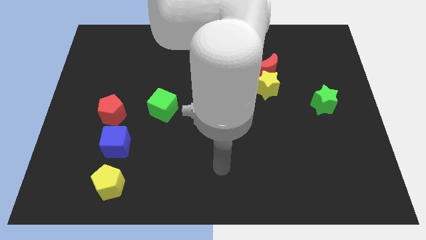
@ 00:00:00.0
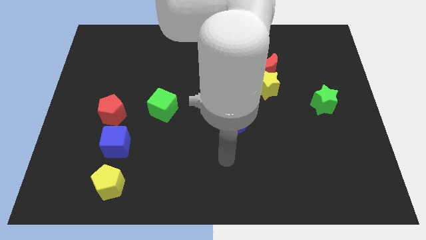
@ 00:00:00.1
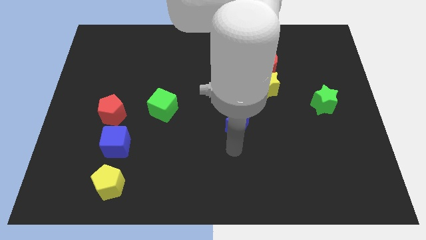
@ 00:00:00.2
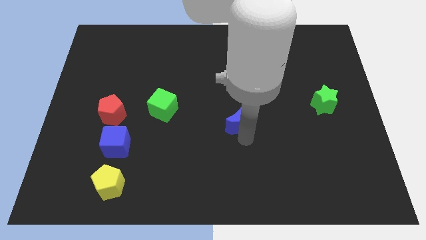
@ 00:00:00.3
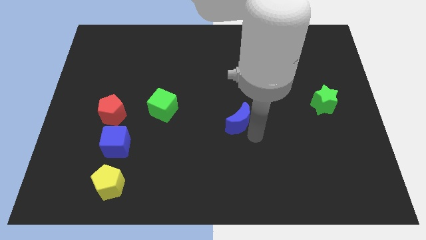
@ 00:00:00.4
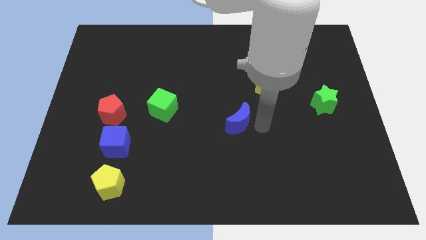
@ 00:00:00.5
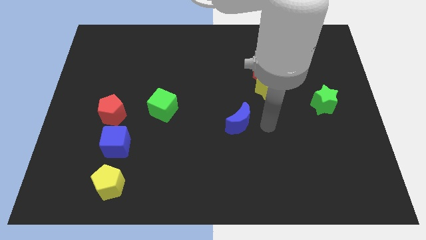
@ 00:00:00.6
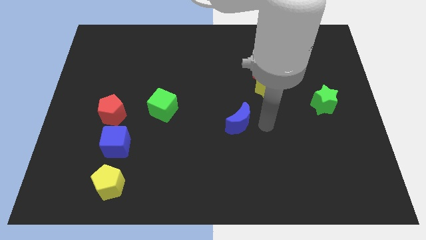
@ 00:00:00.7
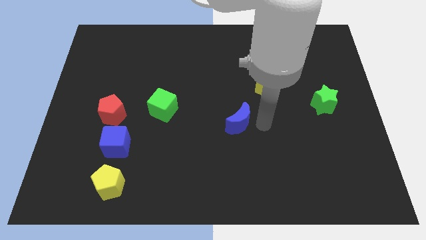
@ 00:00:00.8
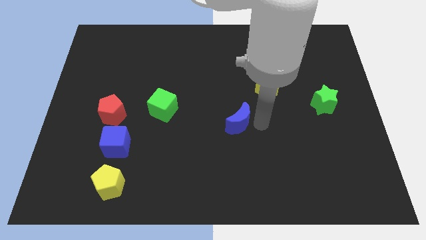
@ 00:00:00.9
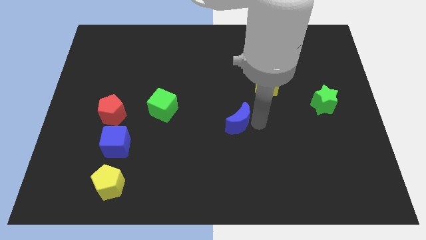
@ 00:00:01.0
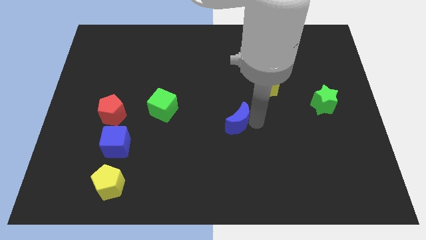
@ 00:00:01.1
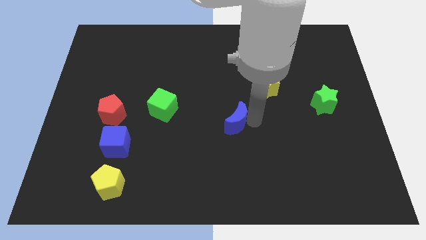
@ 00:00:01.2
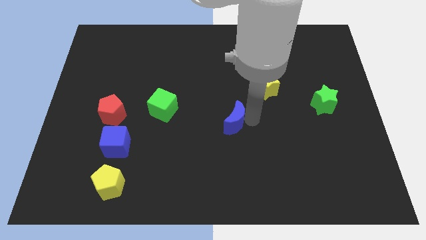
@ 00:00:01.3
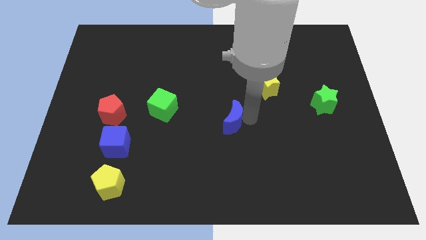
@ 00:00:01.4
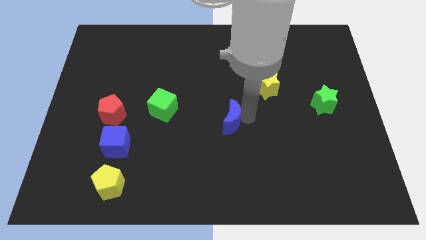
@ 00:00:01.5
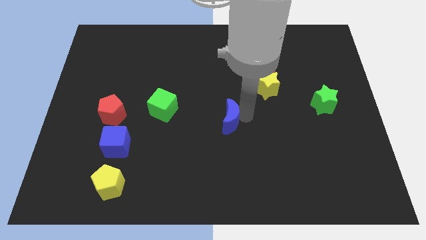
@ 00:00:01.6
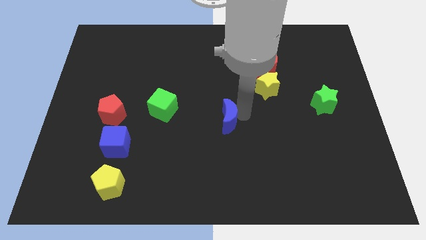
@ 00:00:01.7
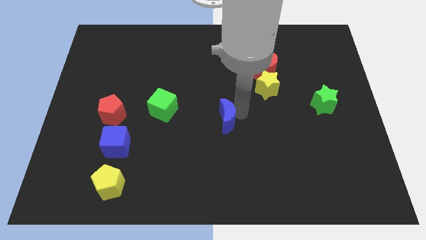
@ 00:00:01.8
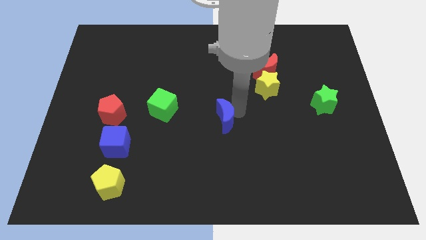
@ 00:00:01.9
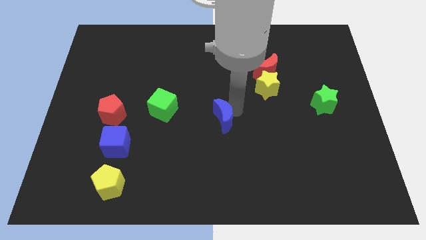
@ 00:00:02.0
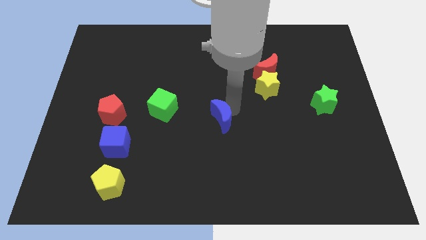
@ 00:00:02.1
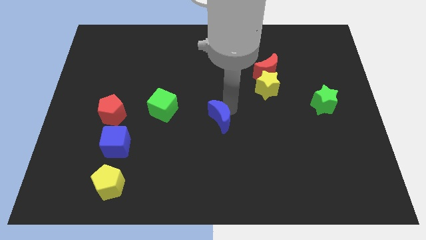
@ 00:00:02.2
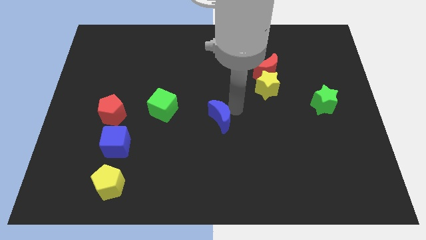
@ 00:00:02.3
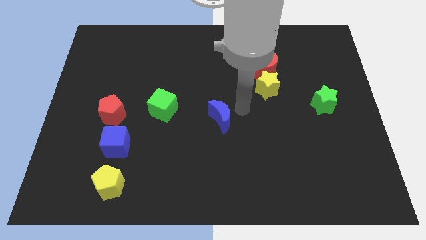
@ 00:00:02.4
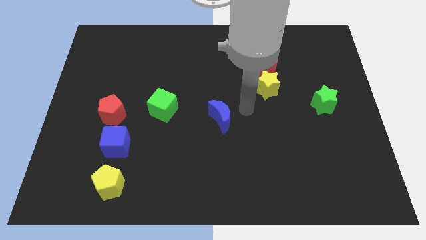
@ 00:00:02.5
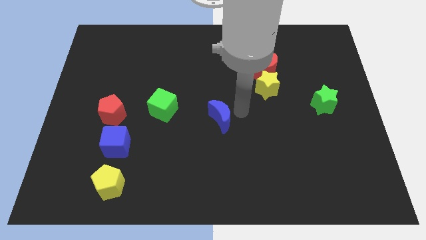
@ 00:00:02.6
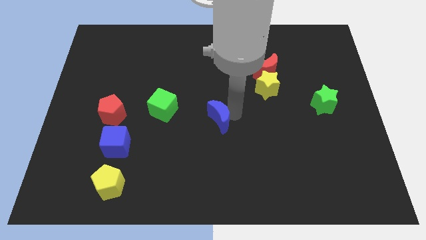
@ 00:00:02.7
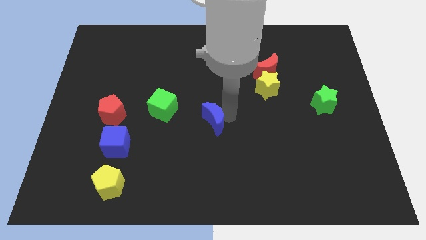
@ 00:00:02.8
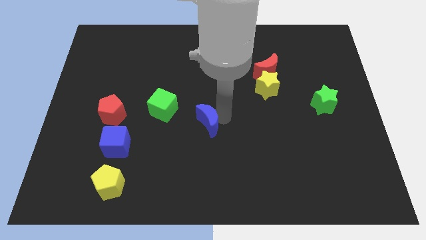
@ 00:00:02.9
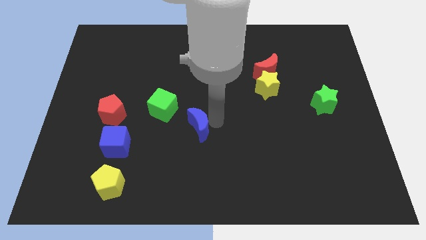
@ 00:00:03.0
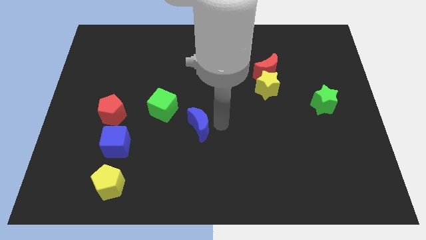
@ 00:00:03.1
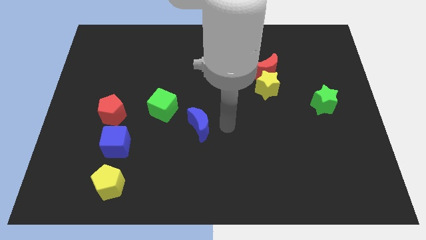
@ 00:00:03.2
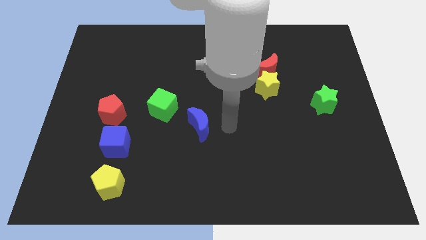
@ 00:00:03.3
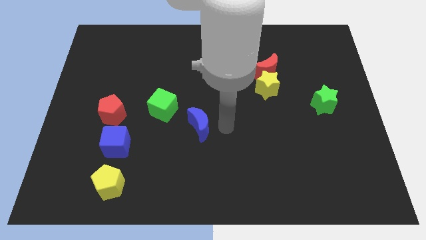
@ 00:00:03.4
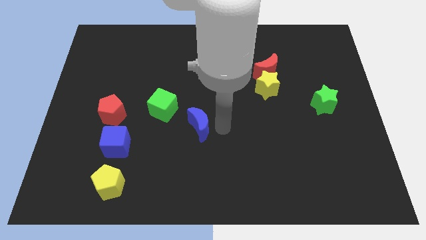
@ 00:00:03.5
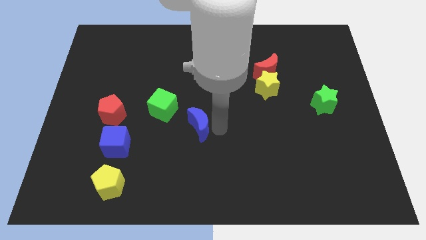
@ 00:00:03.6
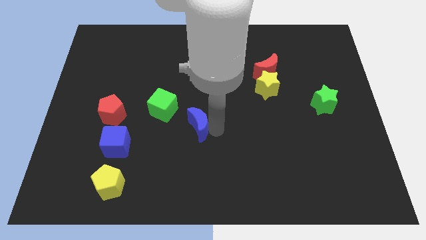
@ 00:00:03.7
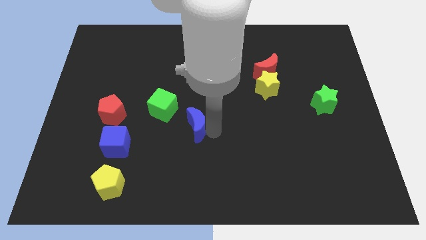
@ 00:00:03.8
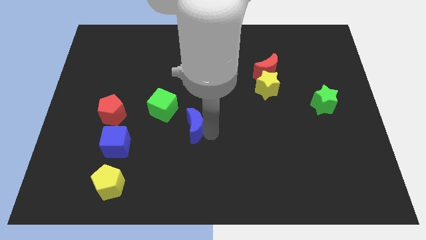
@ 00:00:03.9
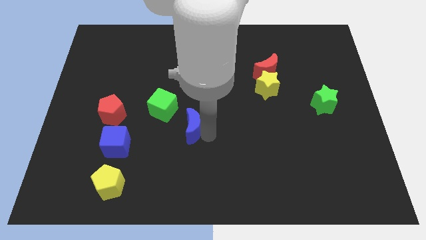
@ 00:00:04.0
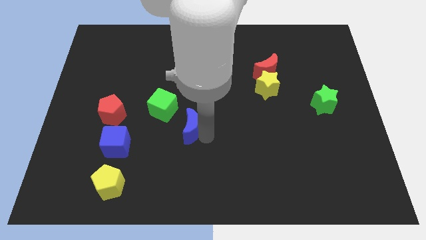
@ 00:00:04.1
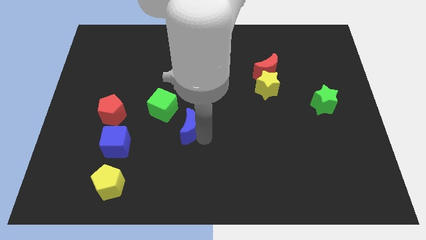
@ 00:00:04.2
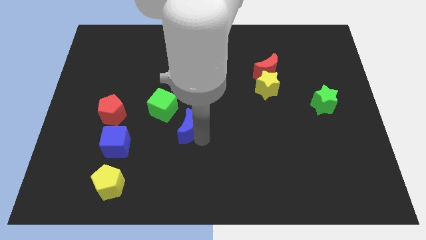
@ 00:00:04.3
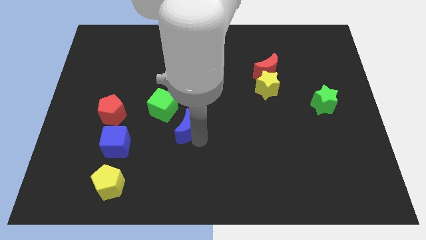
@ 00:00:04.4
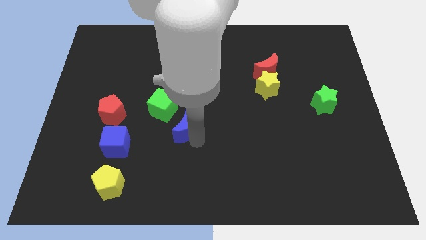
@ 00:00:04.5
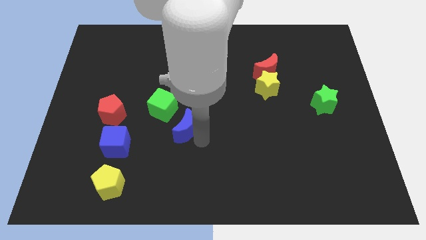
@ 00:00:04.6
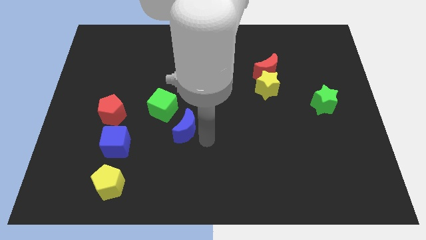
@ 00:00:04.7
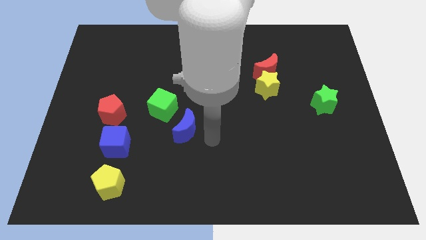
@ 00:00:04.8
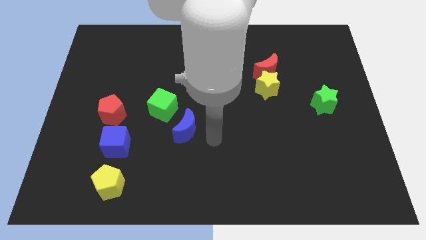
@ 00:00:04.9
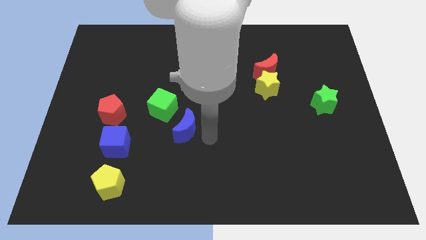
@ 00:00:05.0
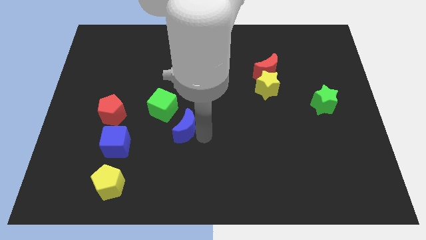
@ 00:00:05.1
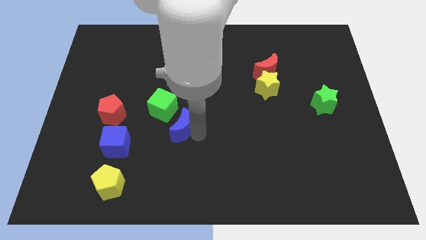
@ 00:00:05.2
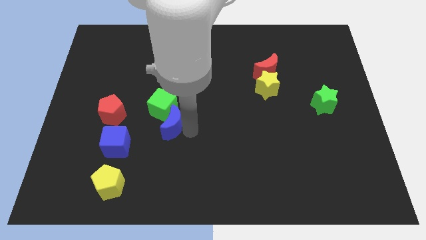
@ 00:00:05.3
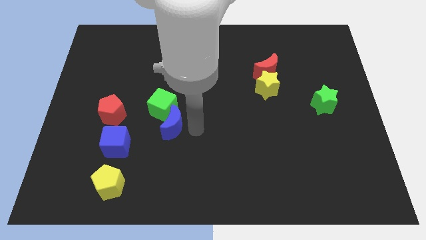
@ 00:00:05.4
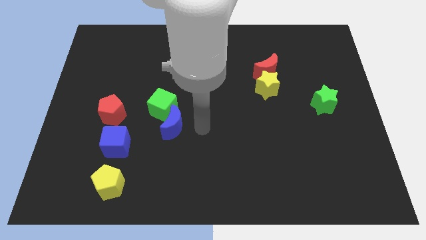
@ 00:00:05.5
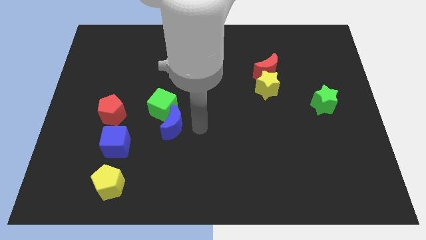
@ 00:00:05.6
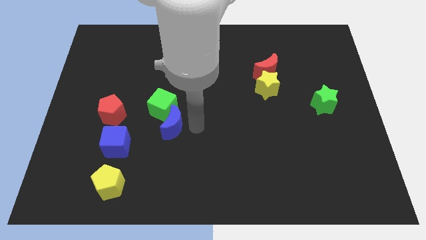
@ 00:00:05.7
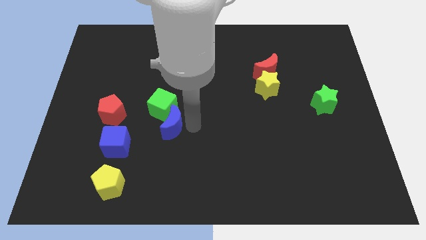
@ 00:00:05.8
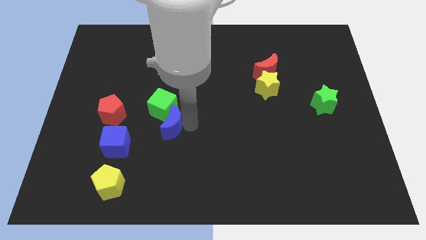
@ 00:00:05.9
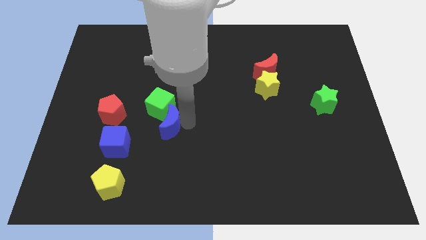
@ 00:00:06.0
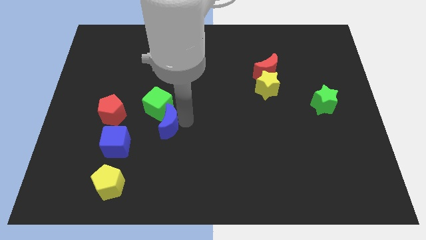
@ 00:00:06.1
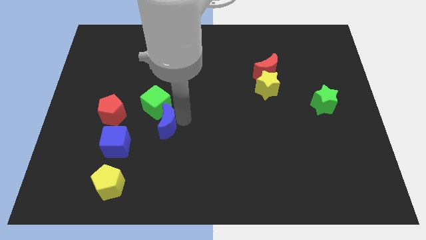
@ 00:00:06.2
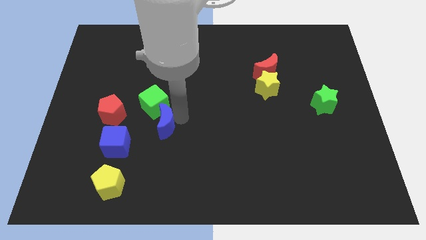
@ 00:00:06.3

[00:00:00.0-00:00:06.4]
move the blue moon diagonally up and to the right of the blue cube

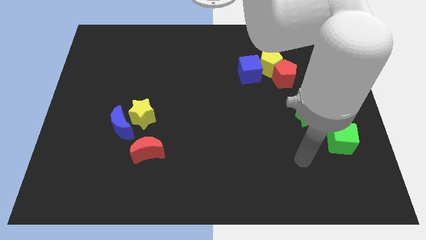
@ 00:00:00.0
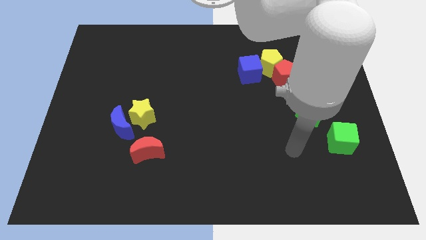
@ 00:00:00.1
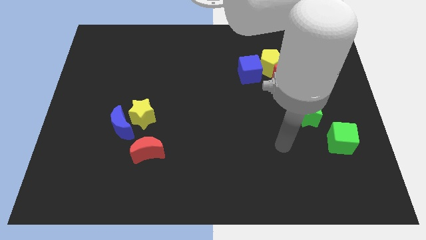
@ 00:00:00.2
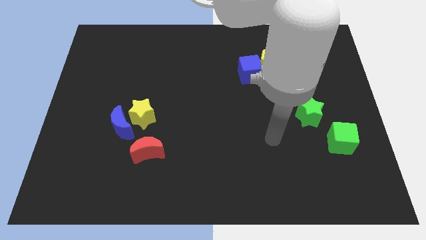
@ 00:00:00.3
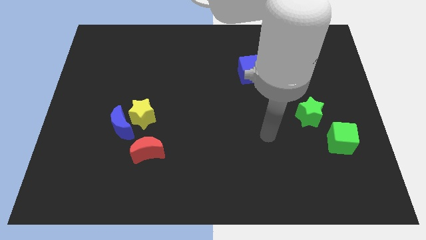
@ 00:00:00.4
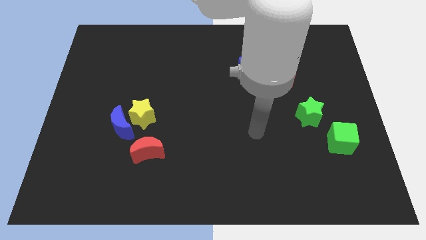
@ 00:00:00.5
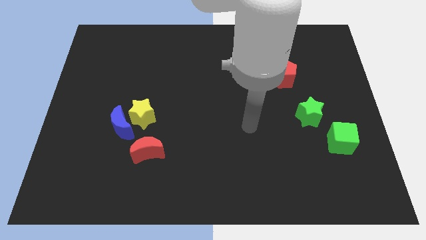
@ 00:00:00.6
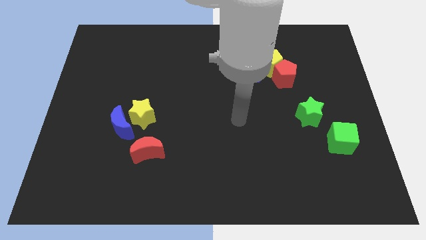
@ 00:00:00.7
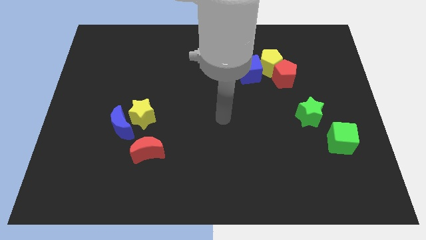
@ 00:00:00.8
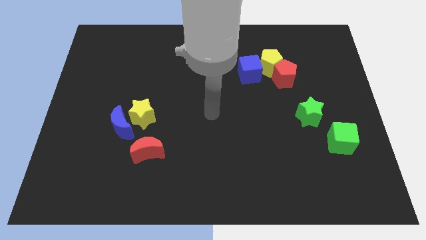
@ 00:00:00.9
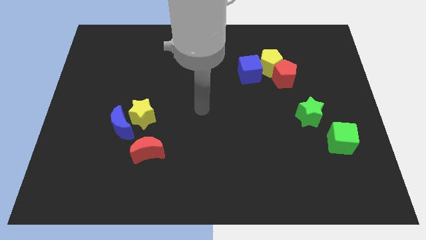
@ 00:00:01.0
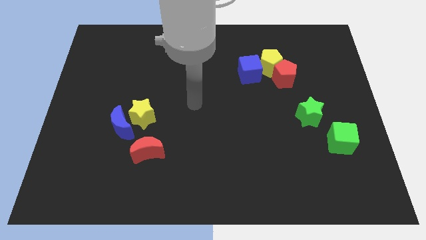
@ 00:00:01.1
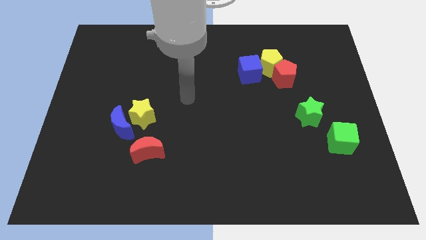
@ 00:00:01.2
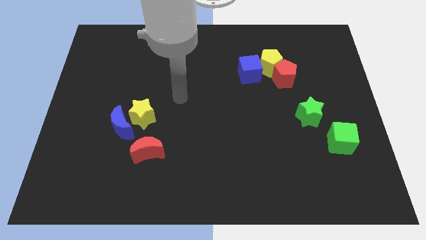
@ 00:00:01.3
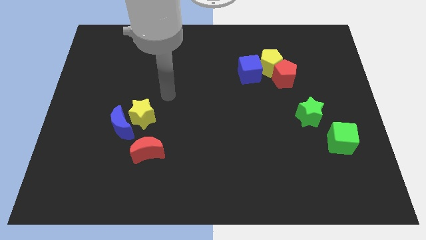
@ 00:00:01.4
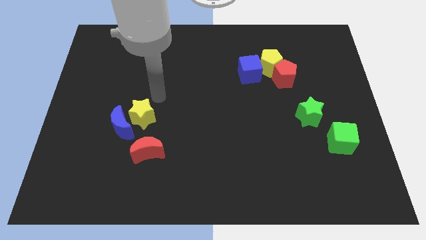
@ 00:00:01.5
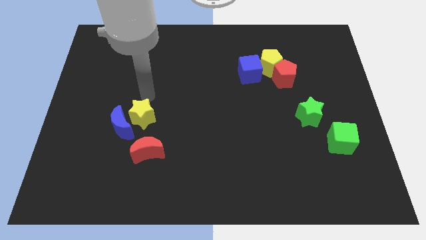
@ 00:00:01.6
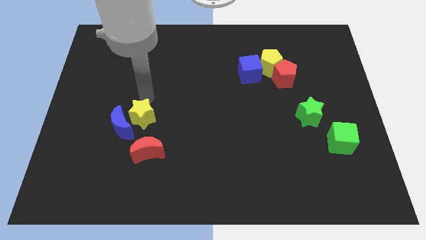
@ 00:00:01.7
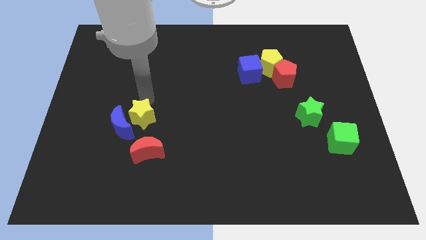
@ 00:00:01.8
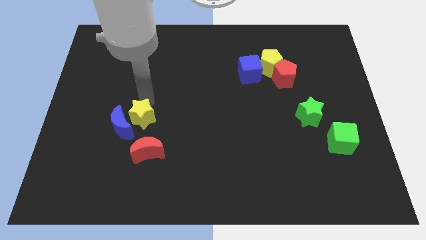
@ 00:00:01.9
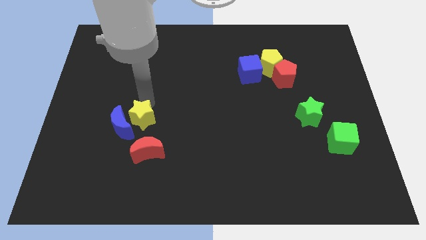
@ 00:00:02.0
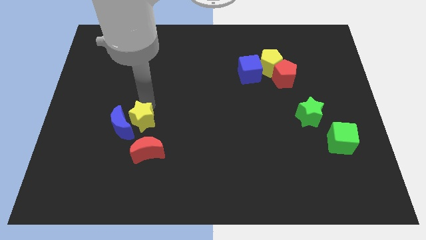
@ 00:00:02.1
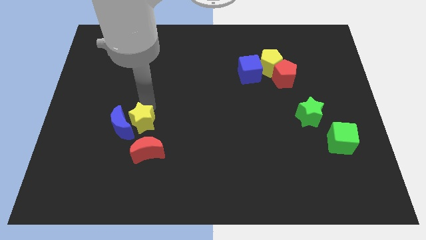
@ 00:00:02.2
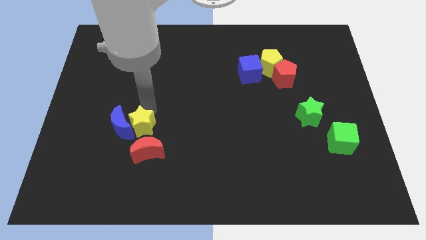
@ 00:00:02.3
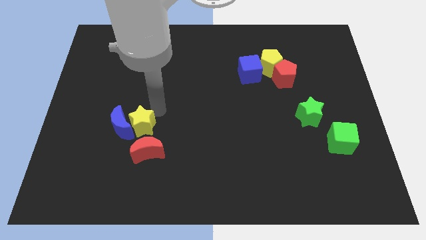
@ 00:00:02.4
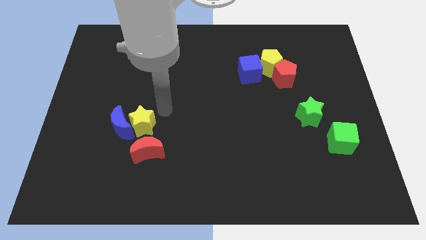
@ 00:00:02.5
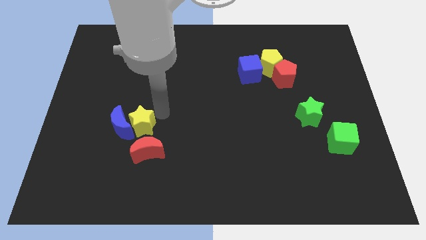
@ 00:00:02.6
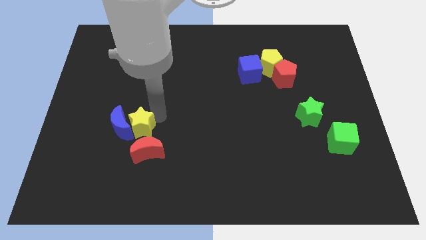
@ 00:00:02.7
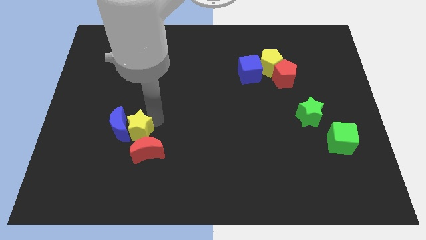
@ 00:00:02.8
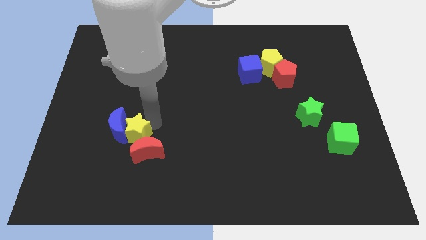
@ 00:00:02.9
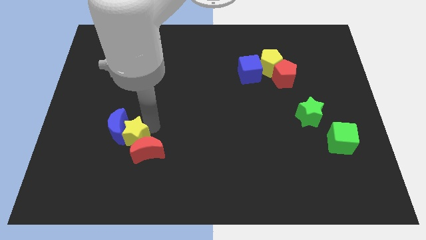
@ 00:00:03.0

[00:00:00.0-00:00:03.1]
slide the yellow star just left of the red moon
